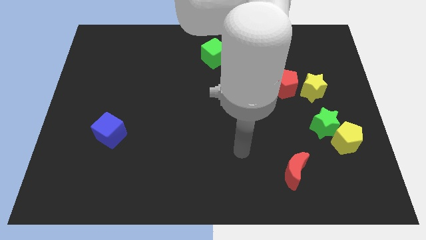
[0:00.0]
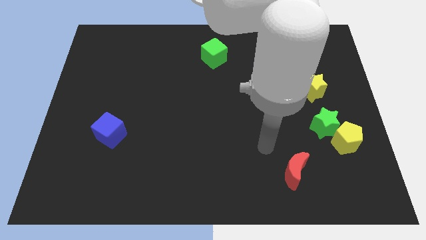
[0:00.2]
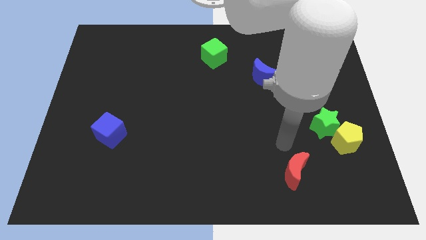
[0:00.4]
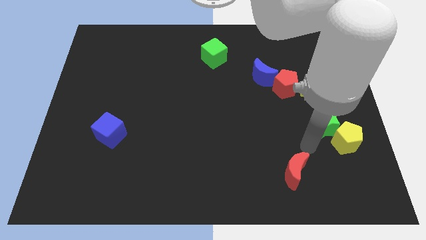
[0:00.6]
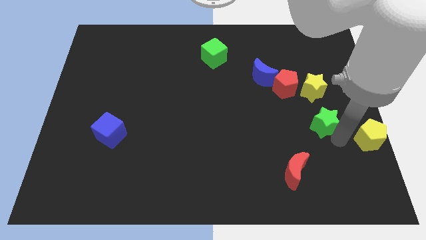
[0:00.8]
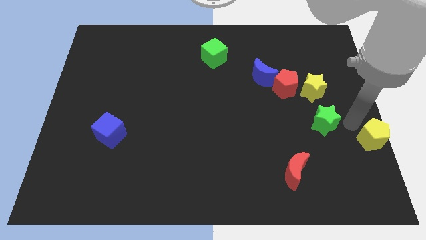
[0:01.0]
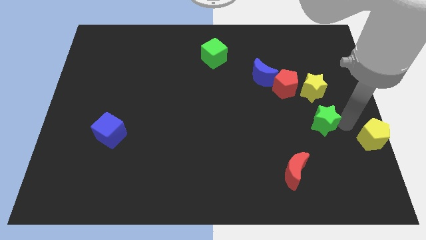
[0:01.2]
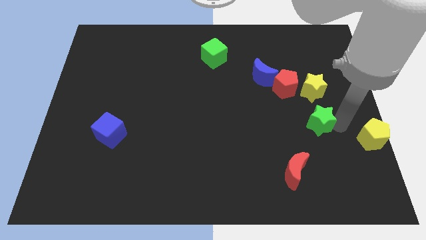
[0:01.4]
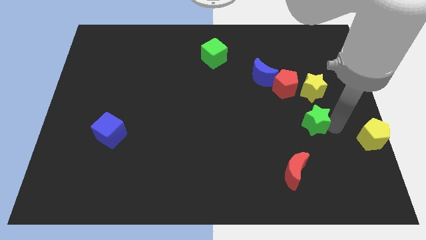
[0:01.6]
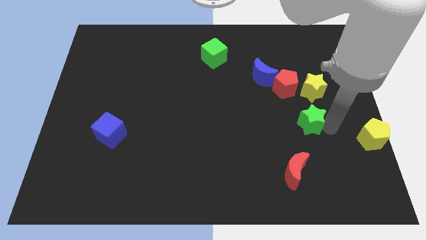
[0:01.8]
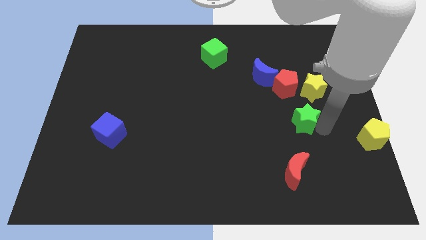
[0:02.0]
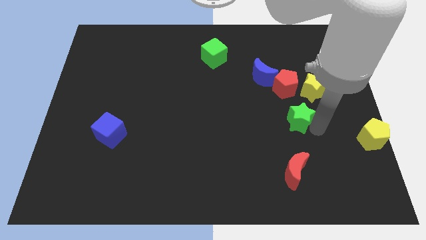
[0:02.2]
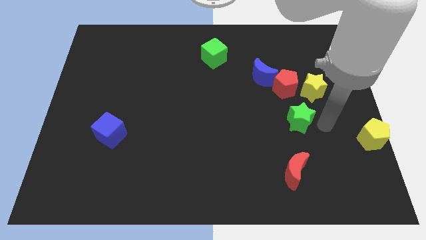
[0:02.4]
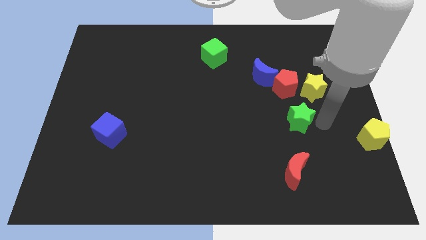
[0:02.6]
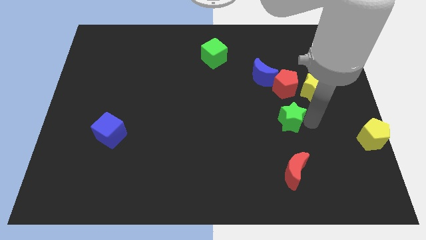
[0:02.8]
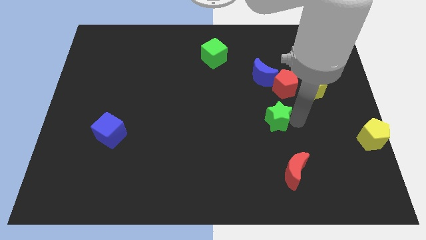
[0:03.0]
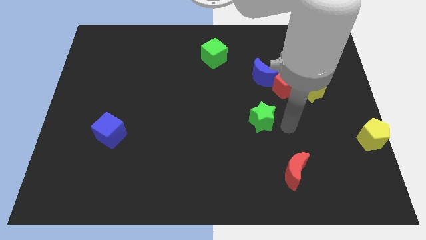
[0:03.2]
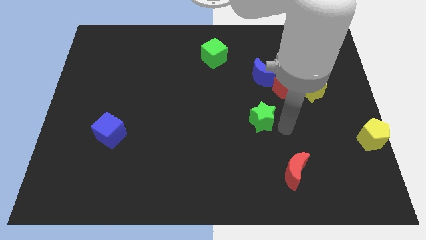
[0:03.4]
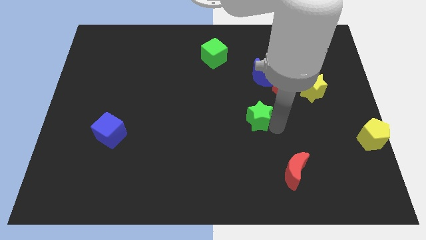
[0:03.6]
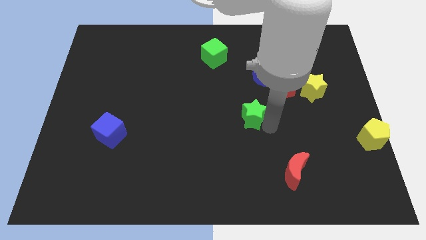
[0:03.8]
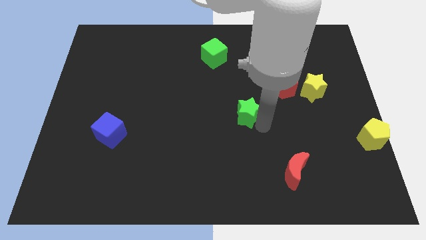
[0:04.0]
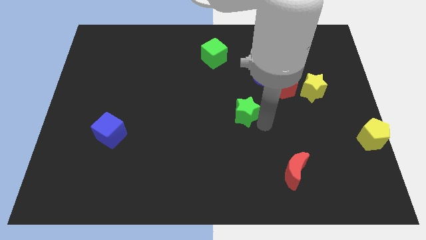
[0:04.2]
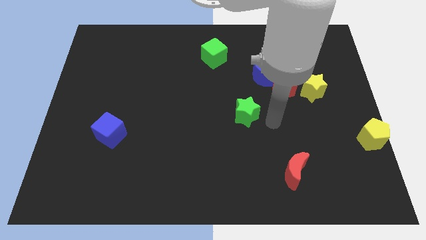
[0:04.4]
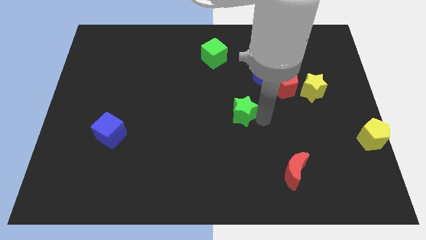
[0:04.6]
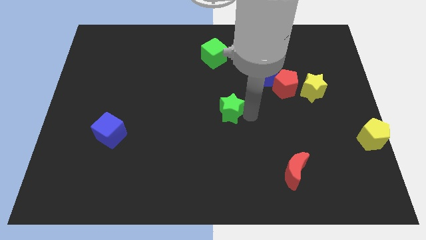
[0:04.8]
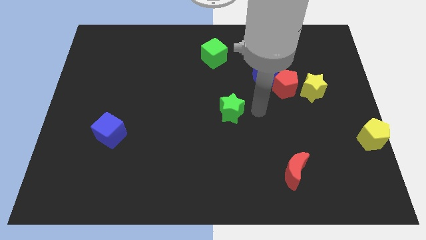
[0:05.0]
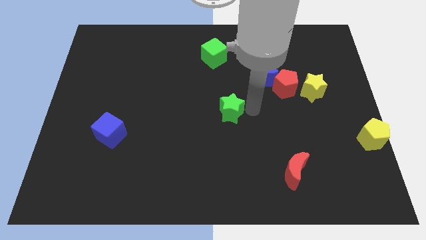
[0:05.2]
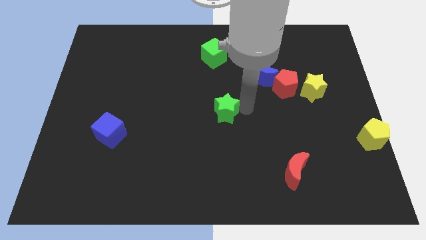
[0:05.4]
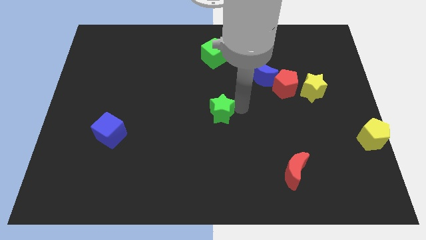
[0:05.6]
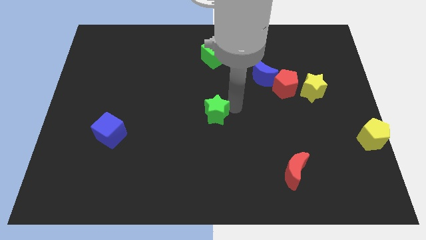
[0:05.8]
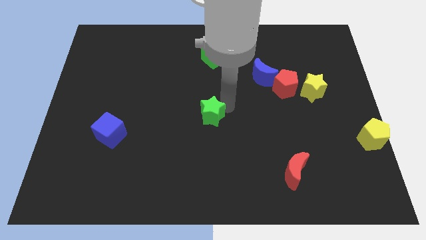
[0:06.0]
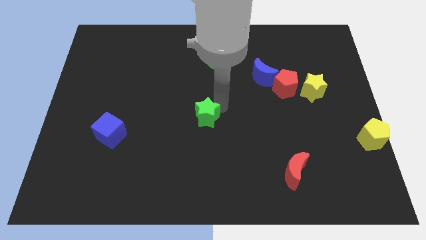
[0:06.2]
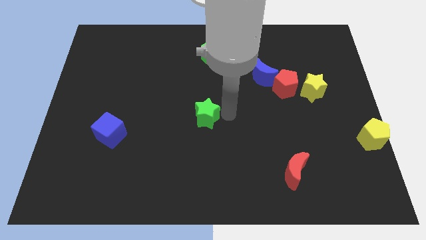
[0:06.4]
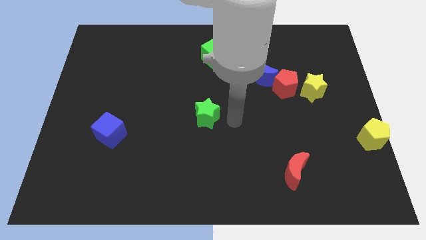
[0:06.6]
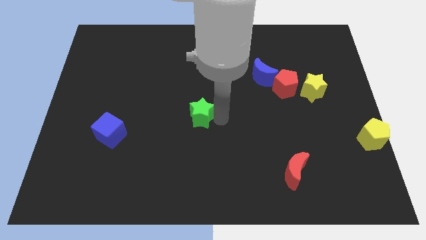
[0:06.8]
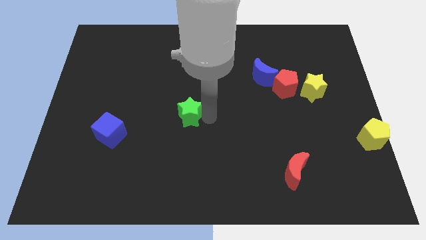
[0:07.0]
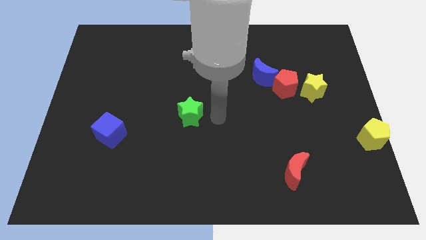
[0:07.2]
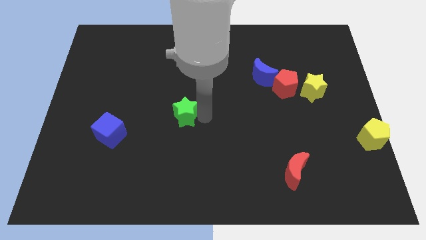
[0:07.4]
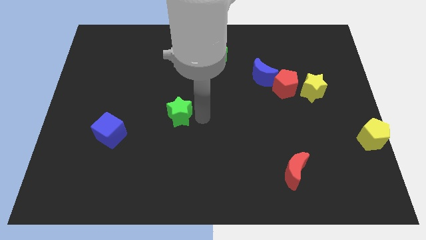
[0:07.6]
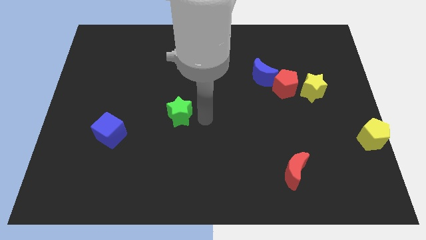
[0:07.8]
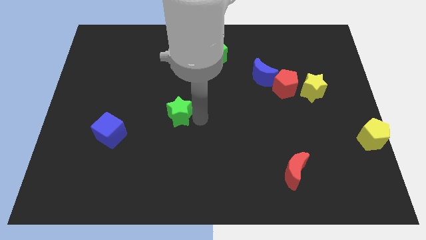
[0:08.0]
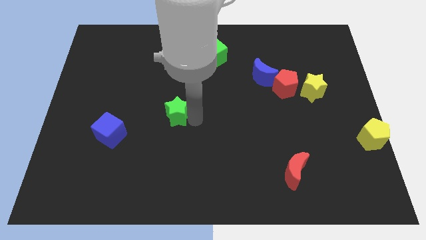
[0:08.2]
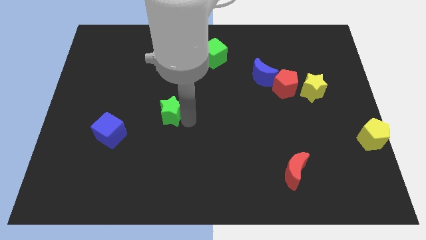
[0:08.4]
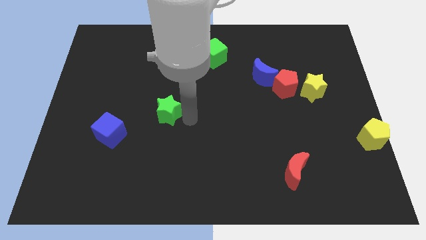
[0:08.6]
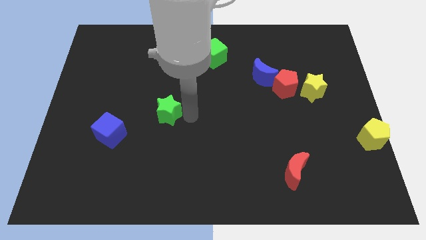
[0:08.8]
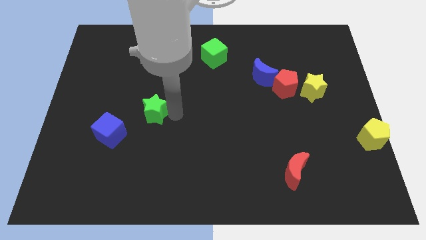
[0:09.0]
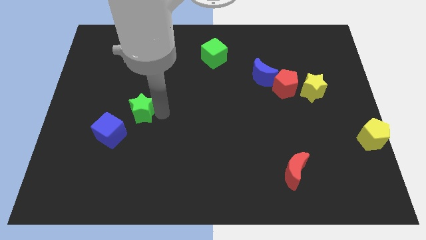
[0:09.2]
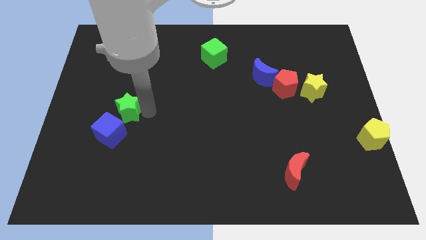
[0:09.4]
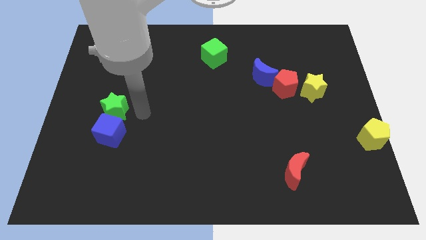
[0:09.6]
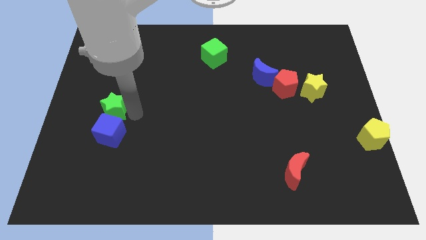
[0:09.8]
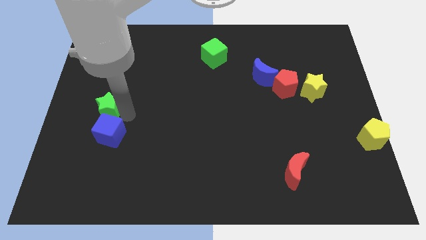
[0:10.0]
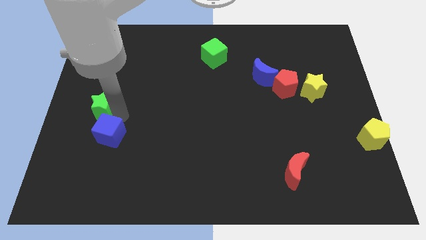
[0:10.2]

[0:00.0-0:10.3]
push the green star to the left side

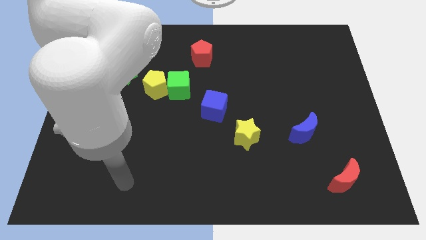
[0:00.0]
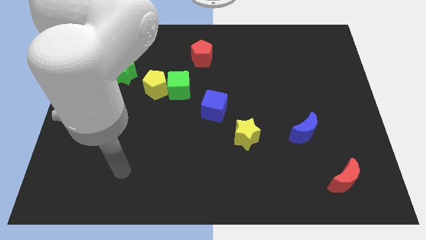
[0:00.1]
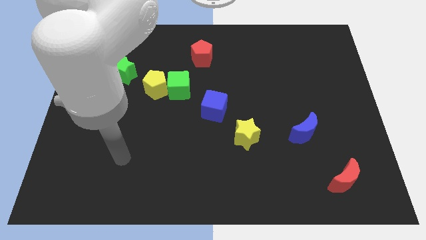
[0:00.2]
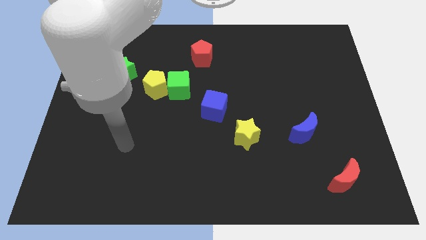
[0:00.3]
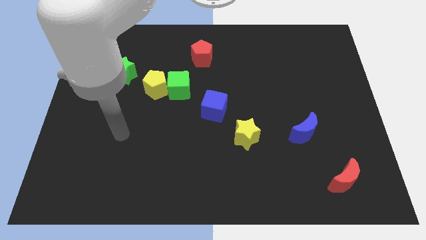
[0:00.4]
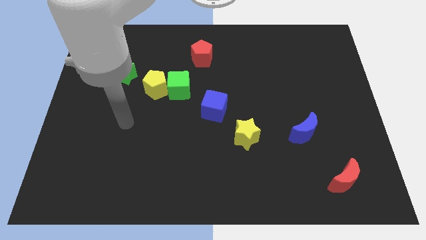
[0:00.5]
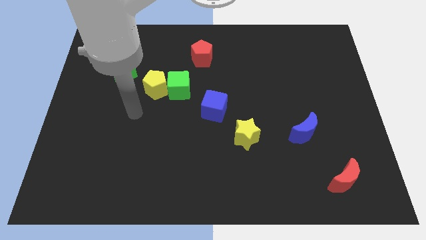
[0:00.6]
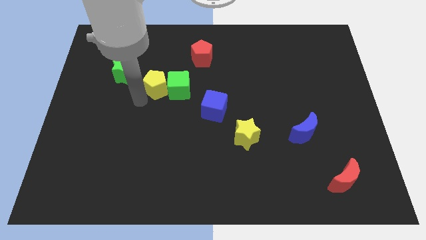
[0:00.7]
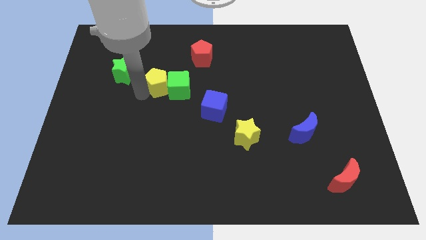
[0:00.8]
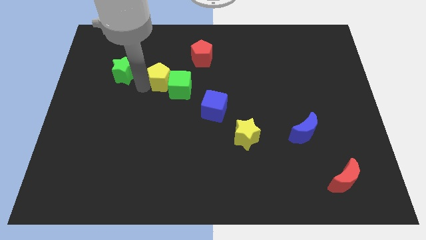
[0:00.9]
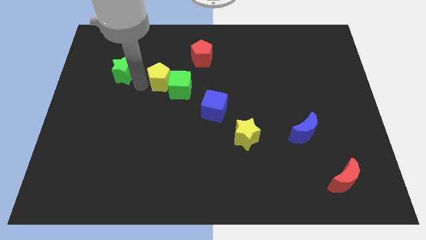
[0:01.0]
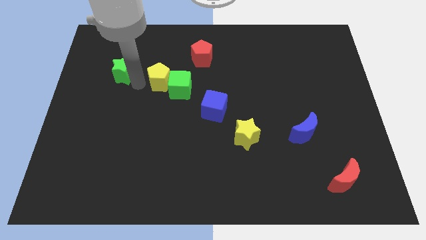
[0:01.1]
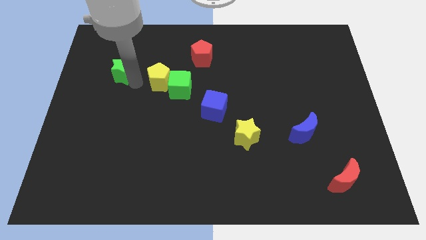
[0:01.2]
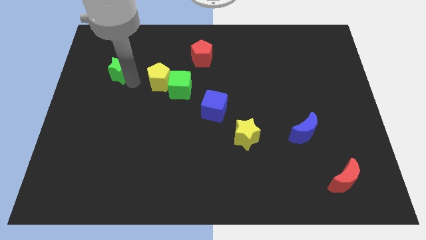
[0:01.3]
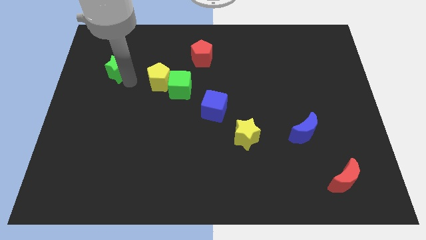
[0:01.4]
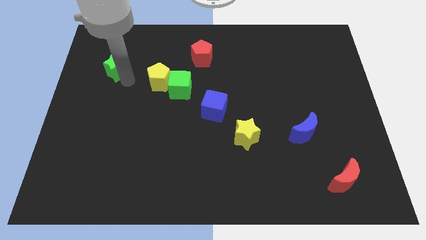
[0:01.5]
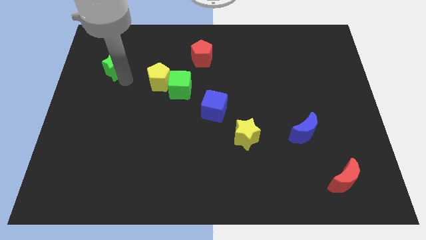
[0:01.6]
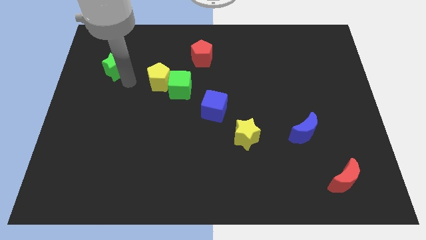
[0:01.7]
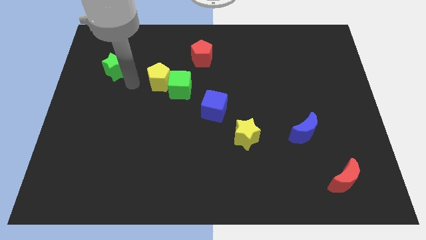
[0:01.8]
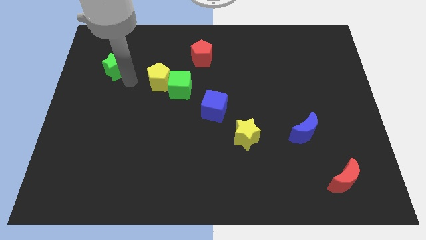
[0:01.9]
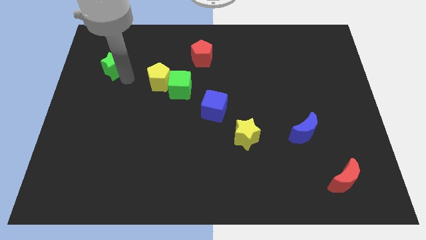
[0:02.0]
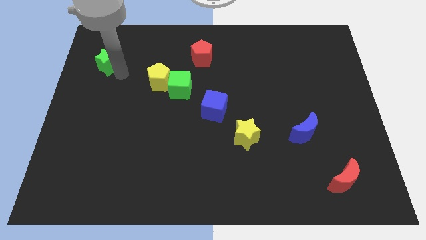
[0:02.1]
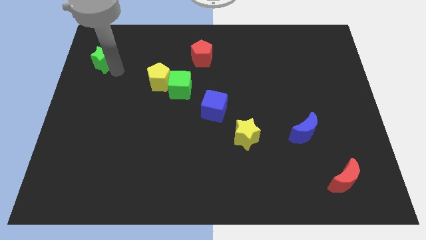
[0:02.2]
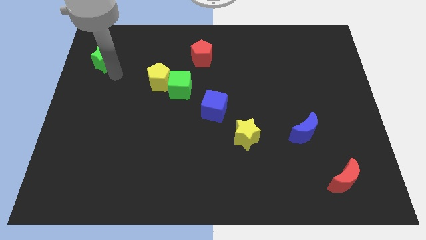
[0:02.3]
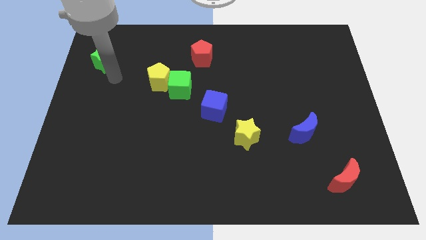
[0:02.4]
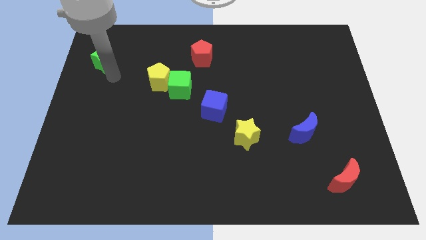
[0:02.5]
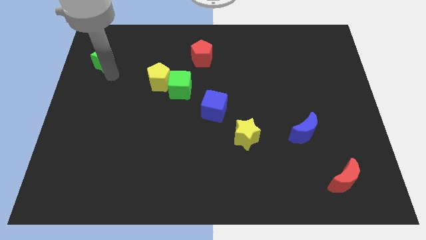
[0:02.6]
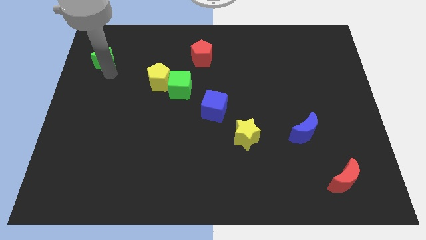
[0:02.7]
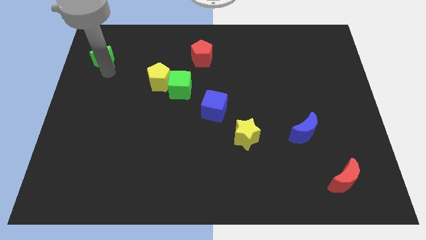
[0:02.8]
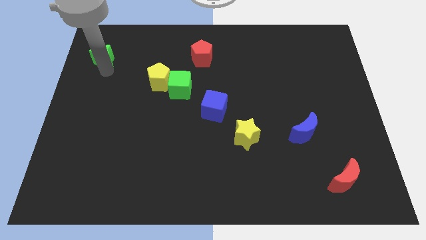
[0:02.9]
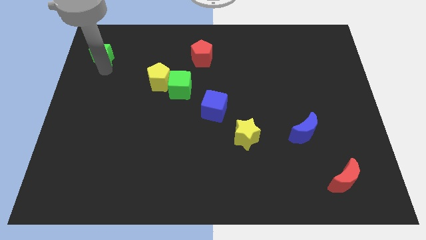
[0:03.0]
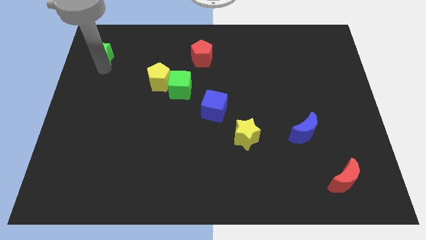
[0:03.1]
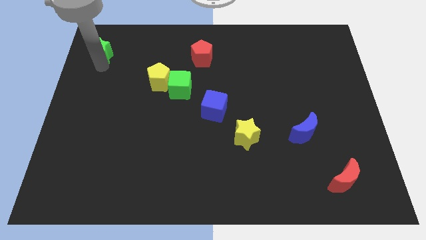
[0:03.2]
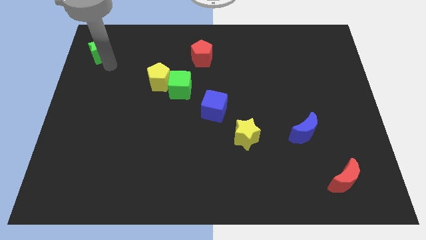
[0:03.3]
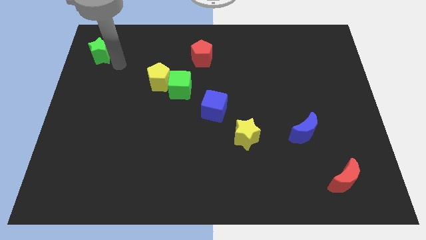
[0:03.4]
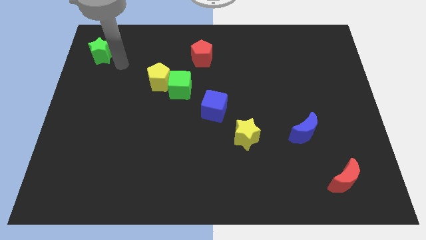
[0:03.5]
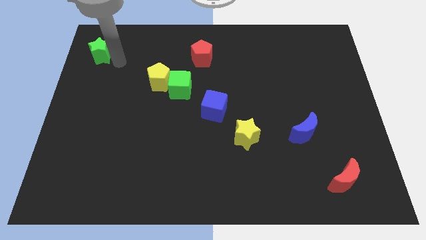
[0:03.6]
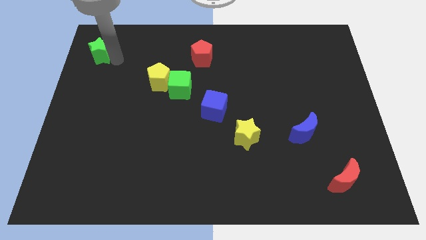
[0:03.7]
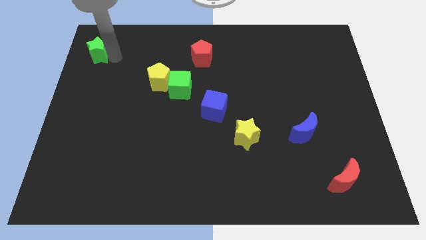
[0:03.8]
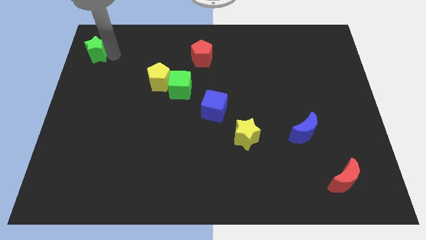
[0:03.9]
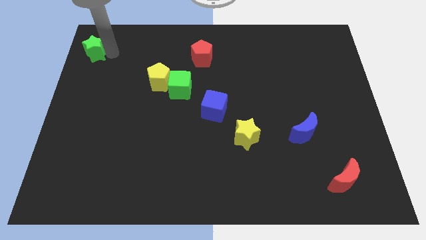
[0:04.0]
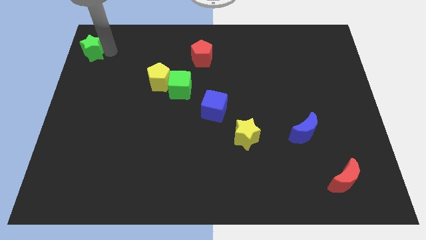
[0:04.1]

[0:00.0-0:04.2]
put the green star to the top left corner
